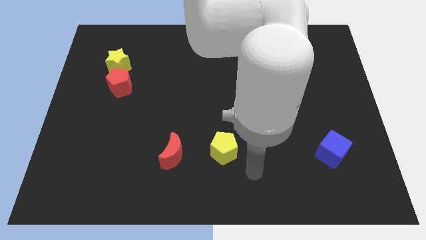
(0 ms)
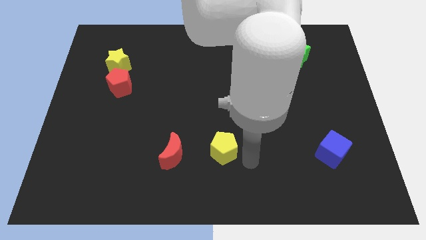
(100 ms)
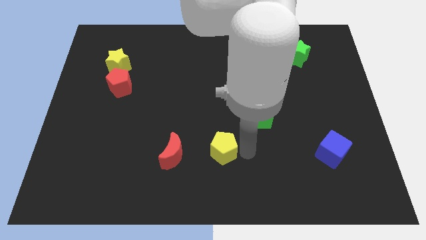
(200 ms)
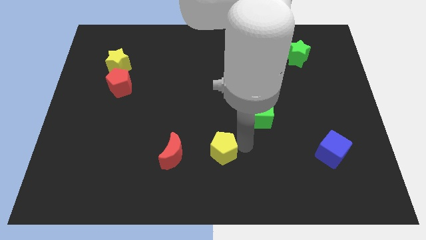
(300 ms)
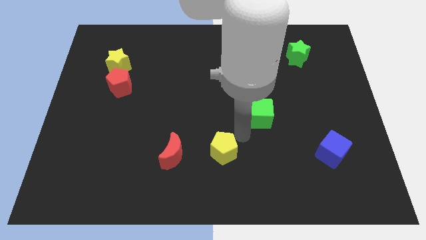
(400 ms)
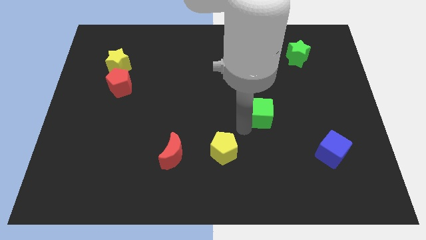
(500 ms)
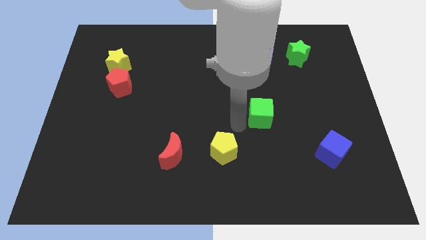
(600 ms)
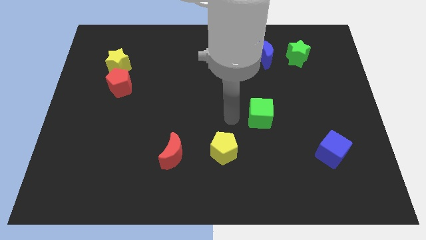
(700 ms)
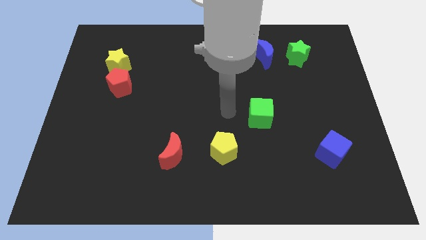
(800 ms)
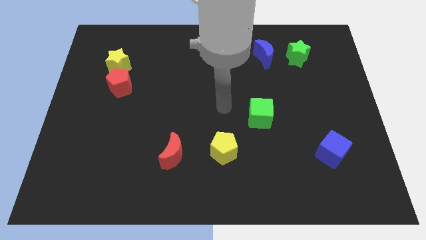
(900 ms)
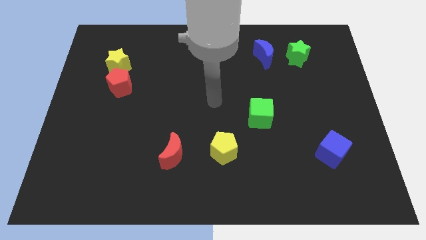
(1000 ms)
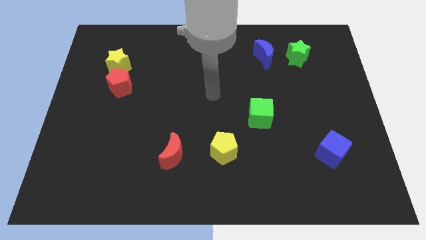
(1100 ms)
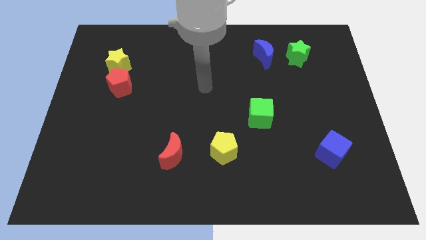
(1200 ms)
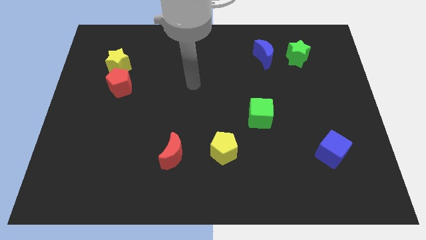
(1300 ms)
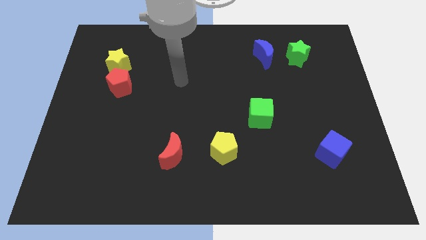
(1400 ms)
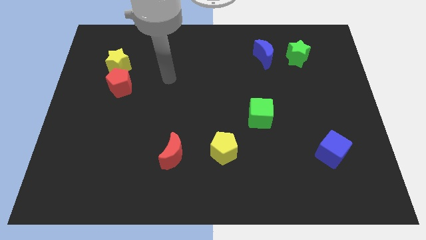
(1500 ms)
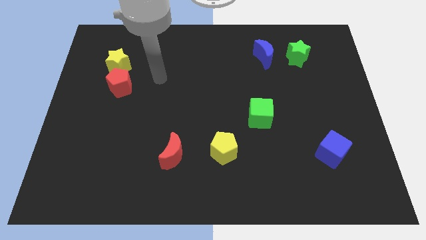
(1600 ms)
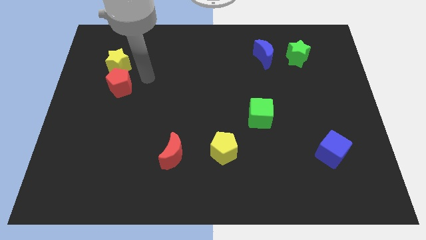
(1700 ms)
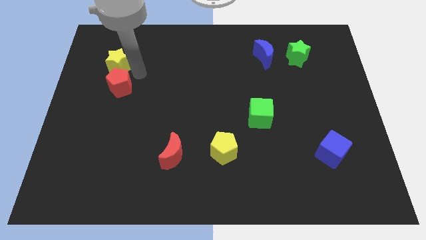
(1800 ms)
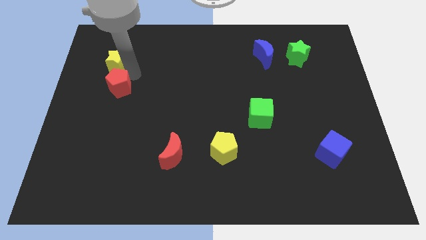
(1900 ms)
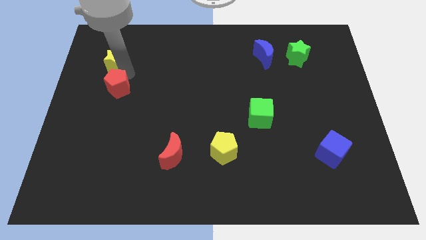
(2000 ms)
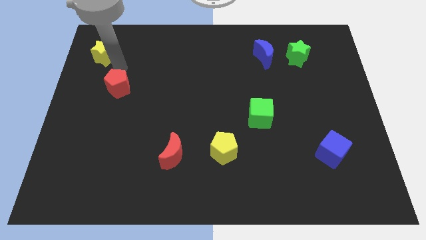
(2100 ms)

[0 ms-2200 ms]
pull the red pentagon apart from the yellow star

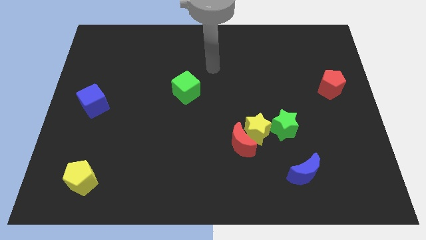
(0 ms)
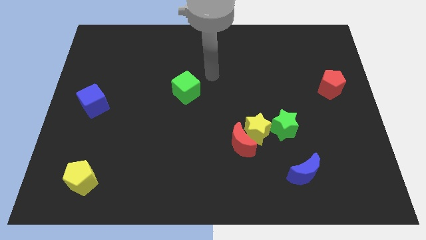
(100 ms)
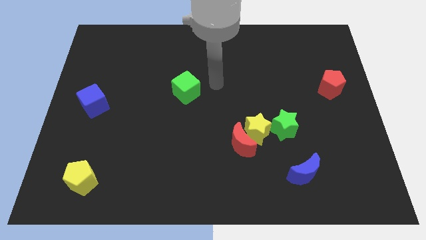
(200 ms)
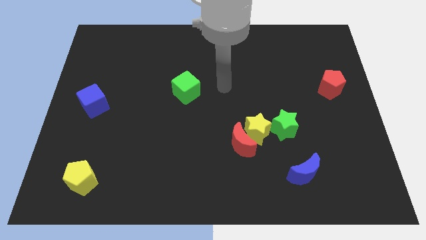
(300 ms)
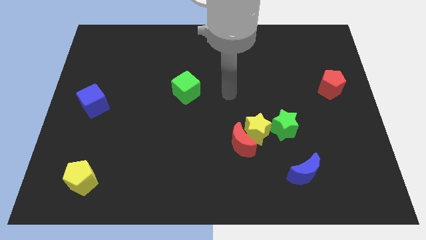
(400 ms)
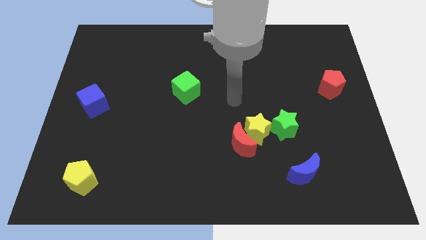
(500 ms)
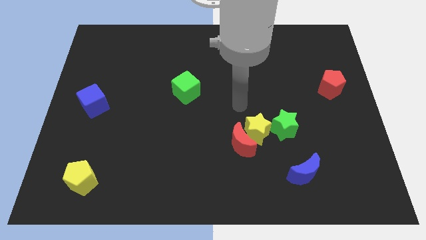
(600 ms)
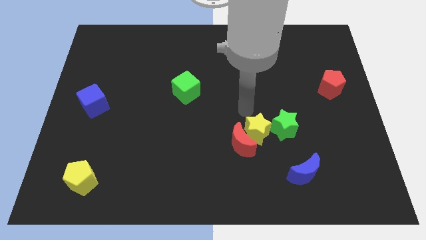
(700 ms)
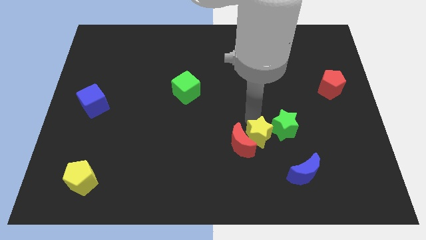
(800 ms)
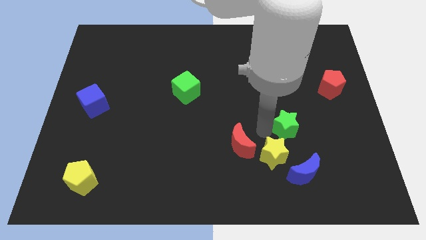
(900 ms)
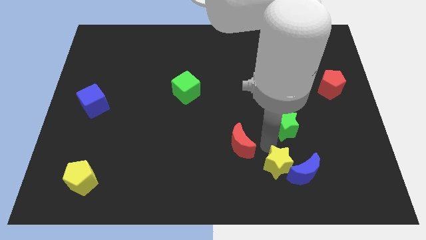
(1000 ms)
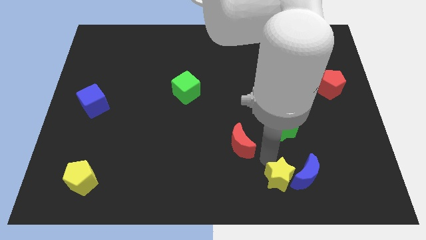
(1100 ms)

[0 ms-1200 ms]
pull the red moon apart from the yellow star

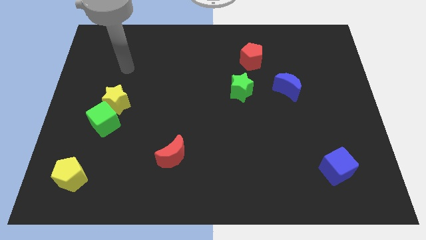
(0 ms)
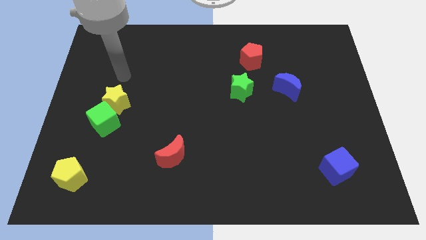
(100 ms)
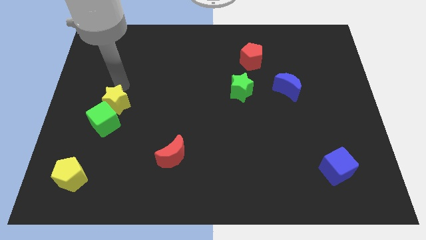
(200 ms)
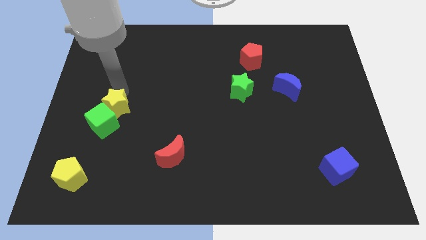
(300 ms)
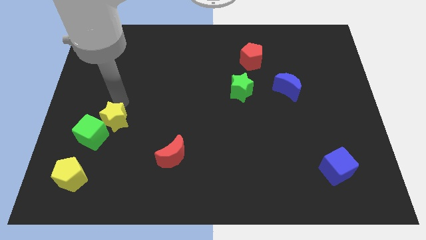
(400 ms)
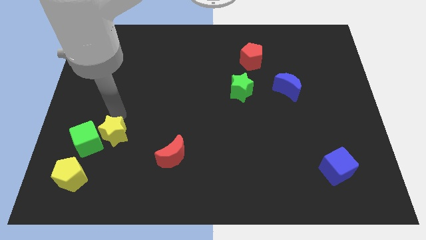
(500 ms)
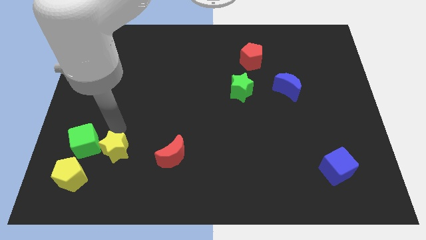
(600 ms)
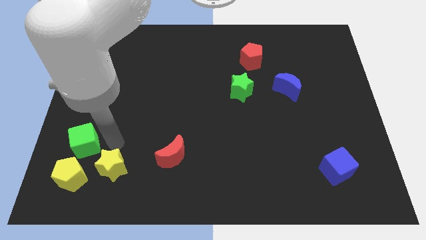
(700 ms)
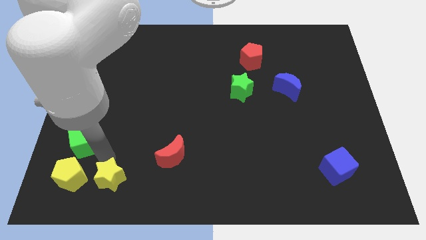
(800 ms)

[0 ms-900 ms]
pull the green cube apart from the yellow star

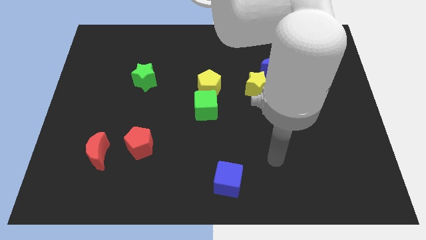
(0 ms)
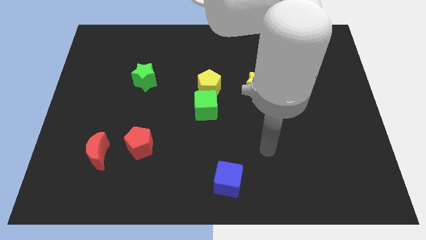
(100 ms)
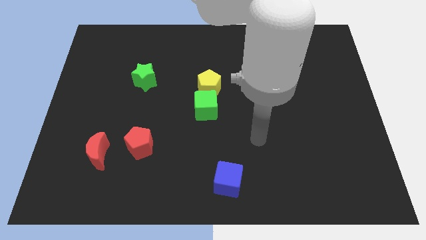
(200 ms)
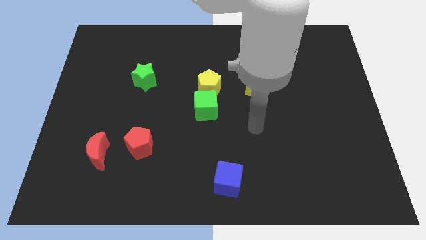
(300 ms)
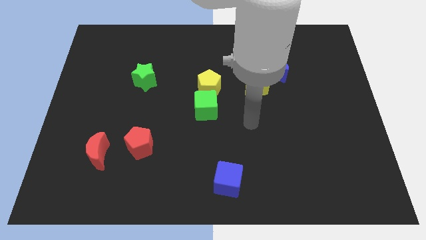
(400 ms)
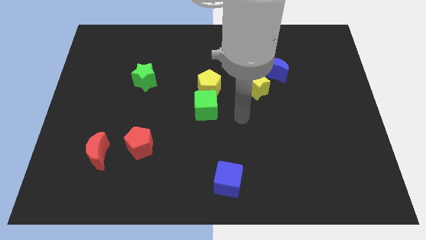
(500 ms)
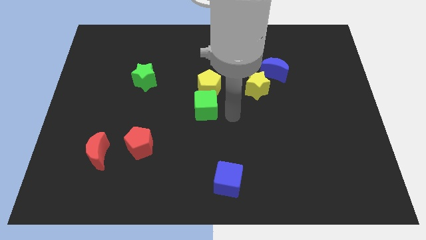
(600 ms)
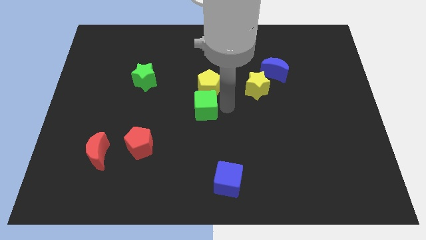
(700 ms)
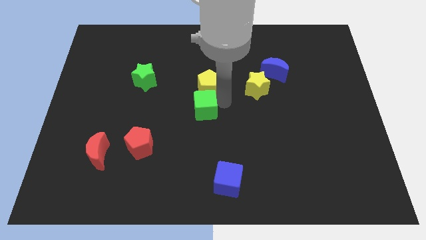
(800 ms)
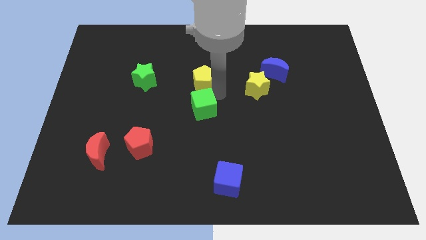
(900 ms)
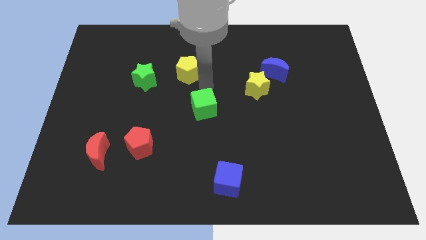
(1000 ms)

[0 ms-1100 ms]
move the green cube away from the yellow pentagon

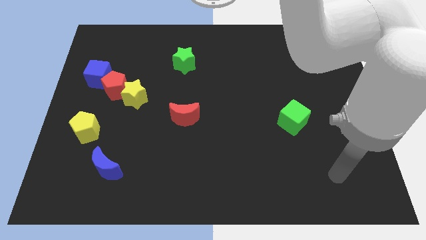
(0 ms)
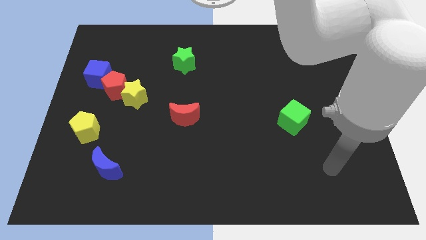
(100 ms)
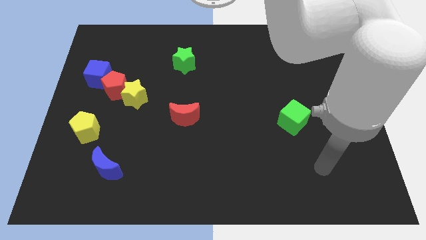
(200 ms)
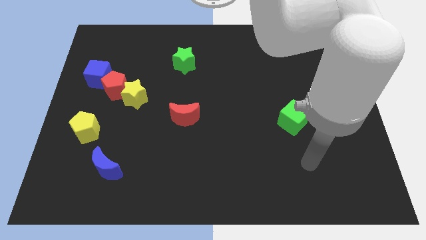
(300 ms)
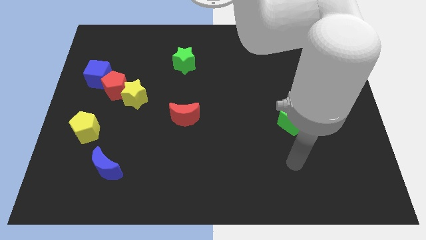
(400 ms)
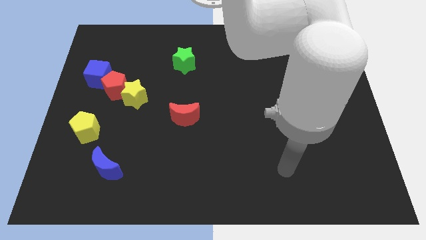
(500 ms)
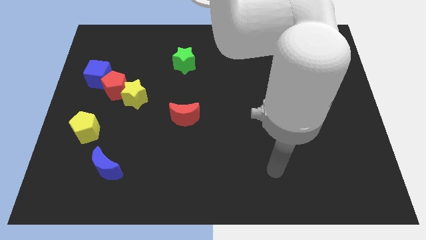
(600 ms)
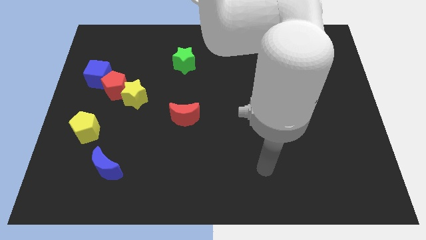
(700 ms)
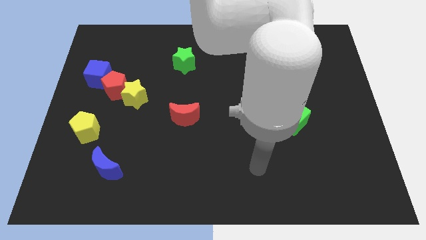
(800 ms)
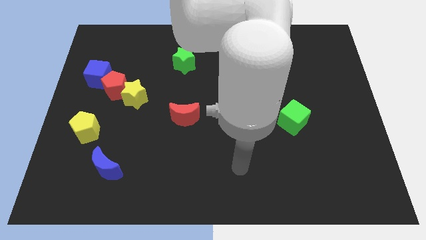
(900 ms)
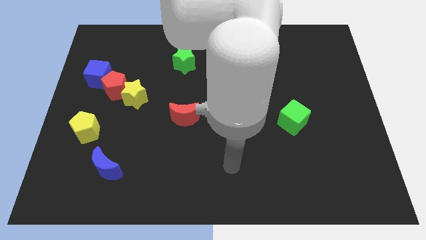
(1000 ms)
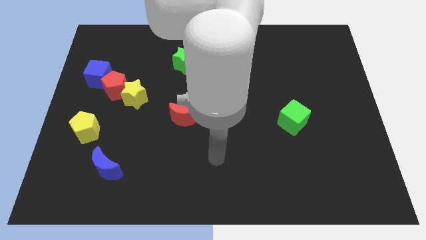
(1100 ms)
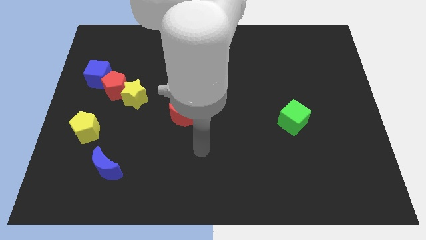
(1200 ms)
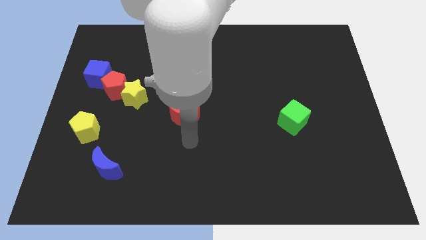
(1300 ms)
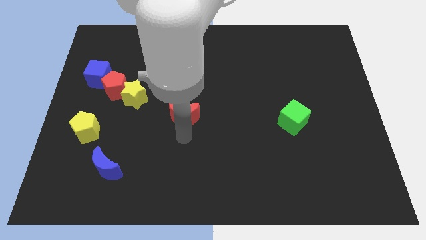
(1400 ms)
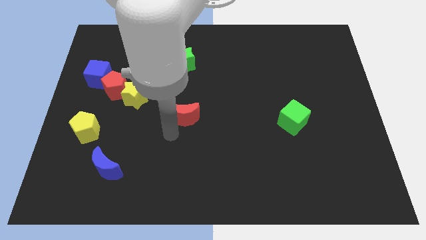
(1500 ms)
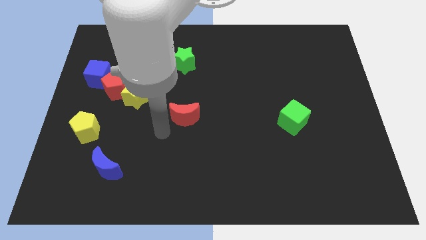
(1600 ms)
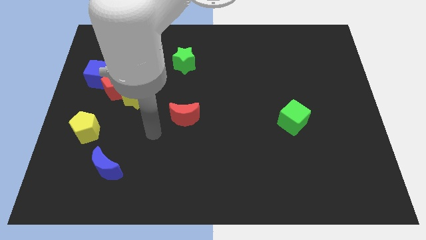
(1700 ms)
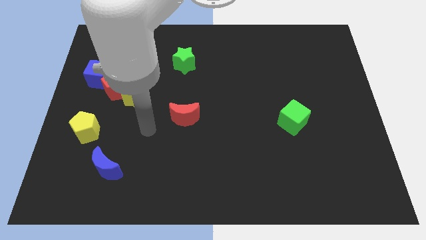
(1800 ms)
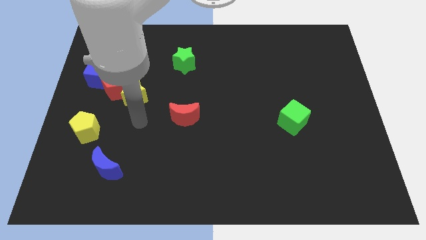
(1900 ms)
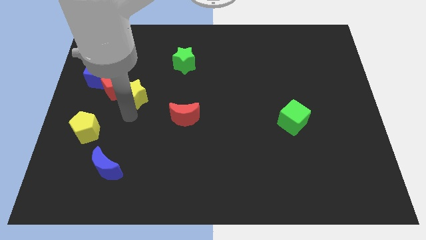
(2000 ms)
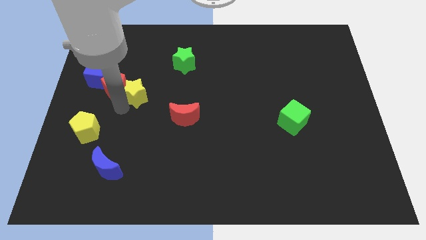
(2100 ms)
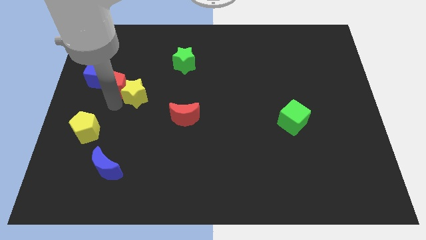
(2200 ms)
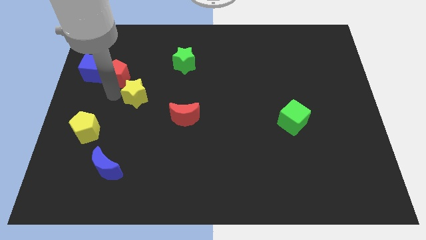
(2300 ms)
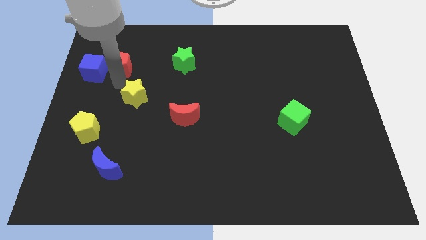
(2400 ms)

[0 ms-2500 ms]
separate the yellow star from the red pentagon

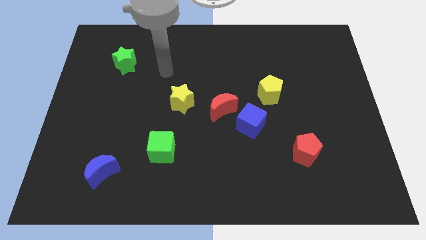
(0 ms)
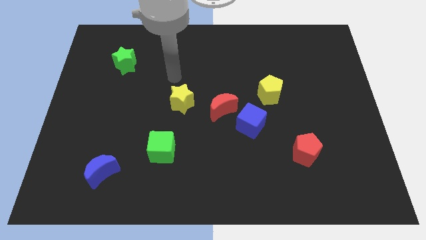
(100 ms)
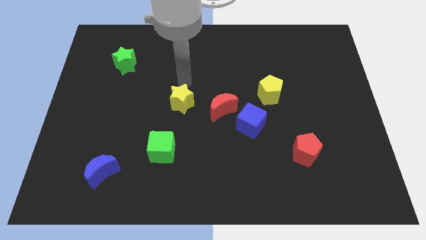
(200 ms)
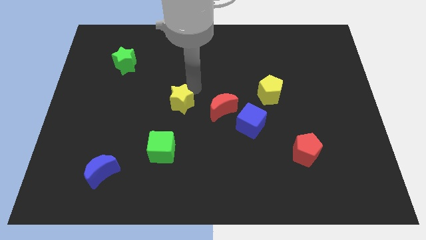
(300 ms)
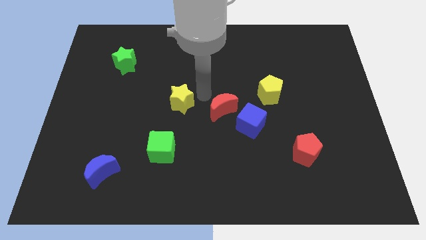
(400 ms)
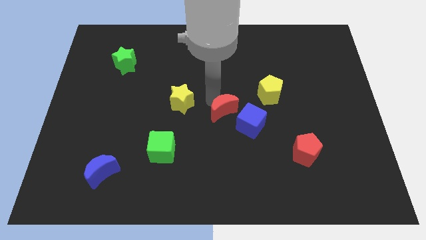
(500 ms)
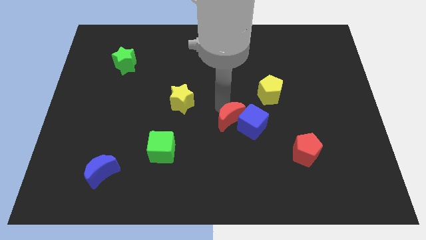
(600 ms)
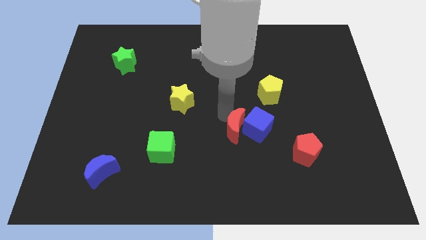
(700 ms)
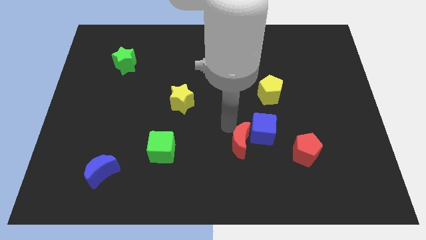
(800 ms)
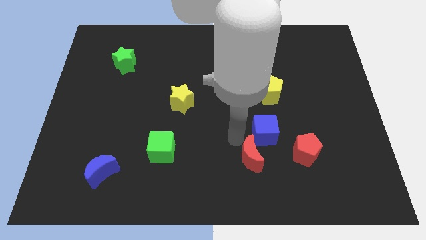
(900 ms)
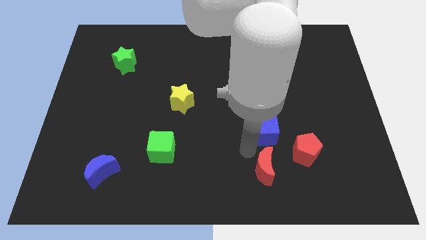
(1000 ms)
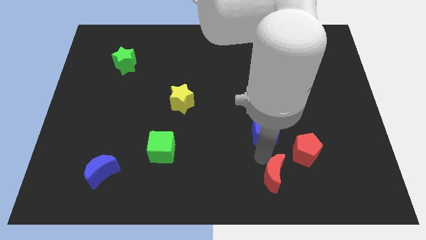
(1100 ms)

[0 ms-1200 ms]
move the blue cube away from the red moon

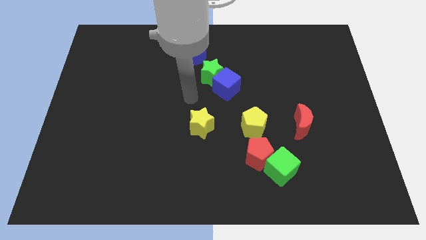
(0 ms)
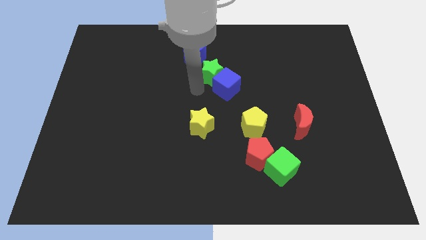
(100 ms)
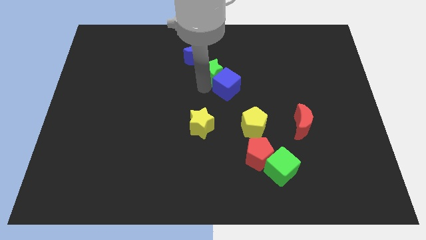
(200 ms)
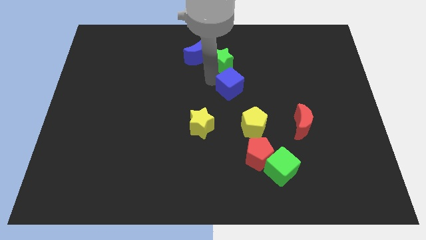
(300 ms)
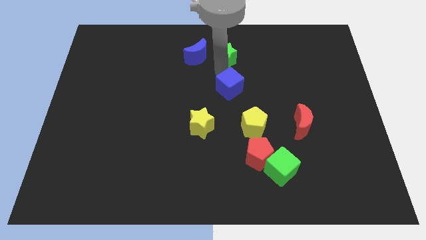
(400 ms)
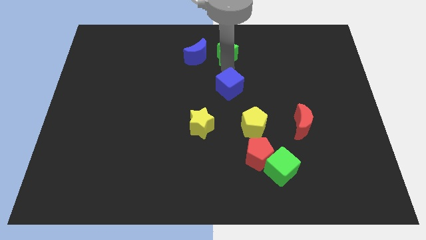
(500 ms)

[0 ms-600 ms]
pull the blue cube apart from the green star
